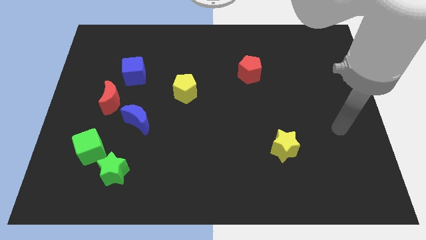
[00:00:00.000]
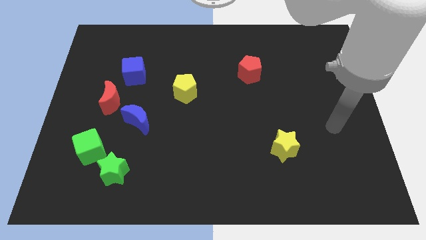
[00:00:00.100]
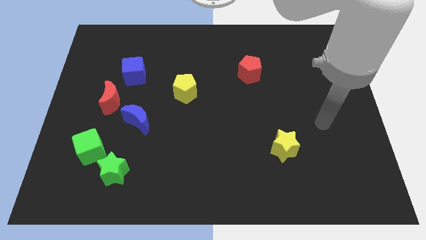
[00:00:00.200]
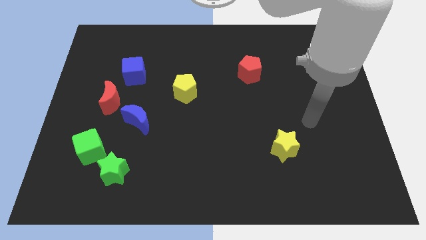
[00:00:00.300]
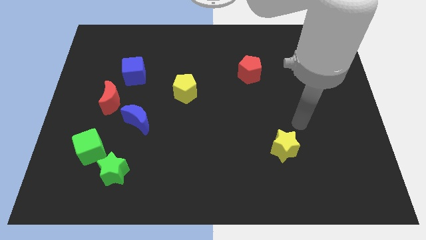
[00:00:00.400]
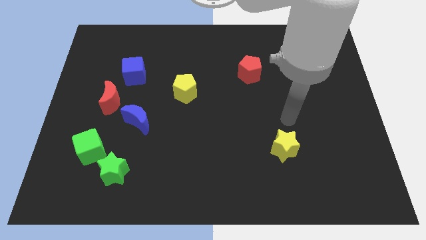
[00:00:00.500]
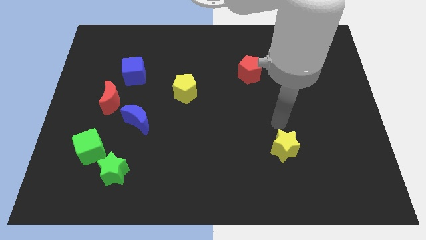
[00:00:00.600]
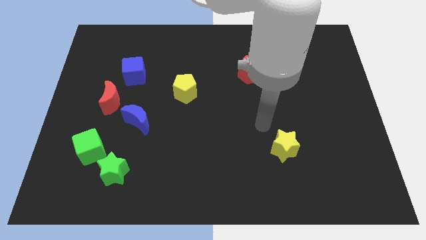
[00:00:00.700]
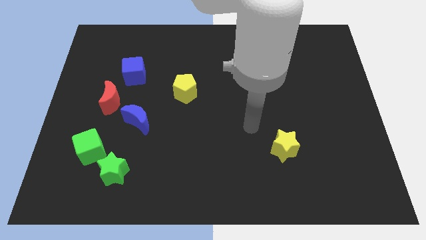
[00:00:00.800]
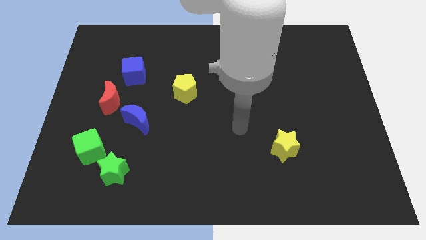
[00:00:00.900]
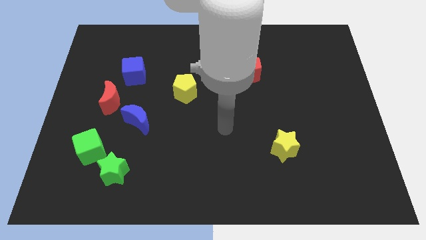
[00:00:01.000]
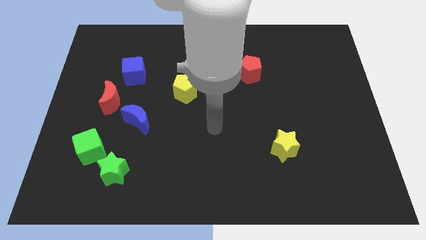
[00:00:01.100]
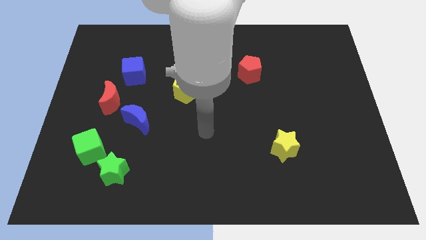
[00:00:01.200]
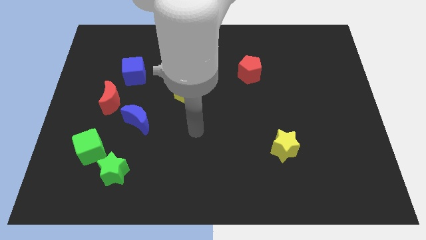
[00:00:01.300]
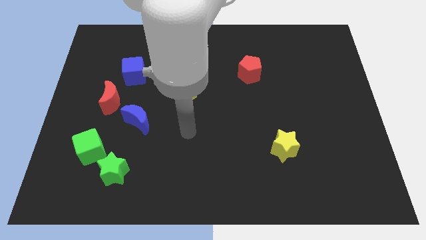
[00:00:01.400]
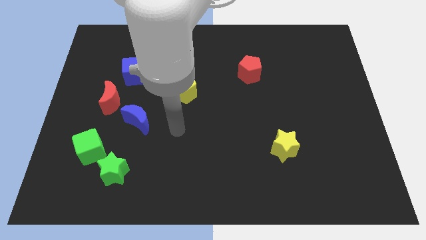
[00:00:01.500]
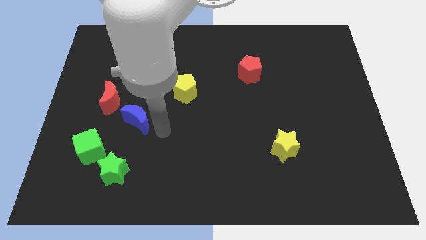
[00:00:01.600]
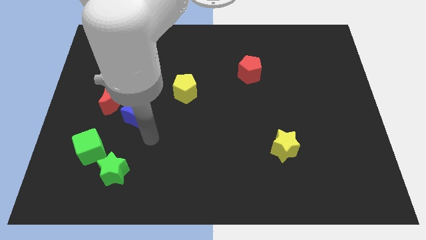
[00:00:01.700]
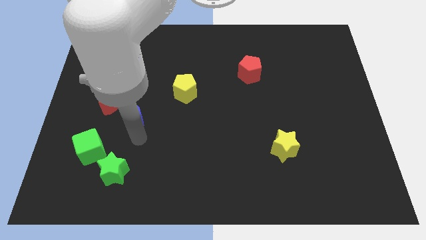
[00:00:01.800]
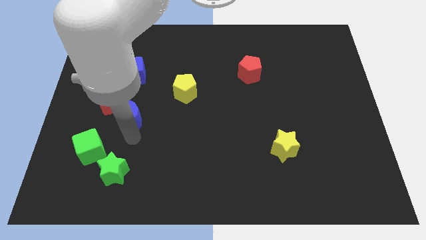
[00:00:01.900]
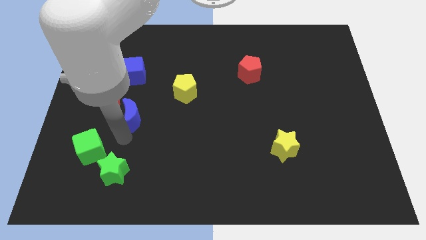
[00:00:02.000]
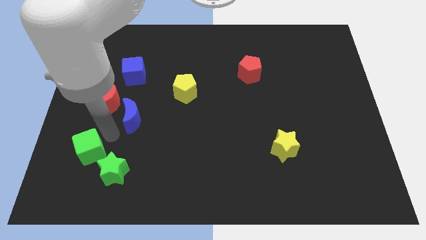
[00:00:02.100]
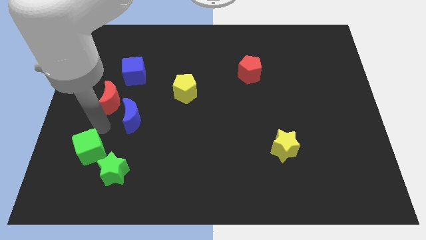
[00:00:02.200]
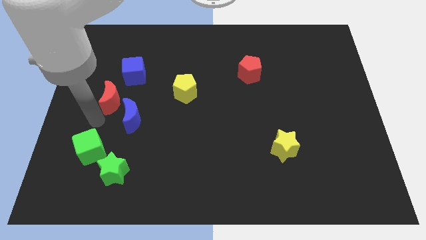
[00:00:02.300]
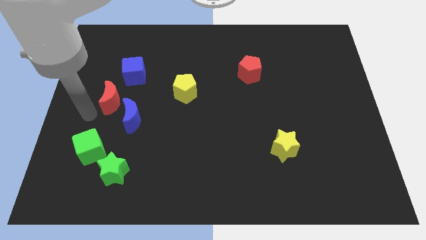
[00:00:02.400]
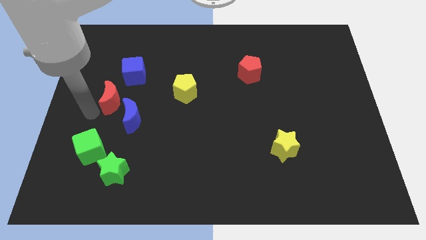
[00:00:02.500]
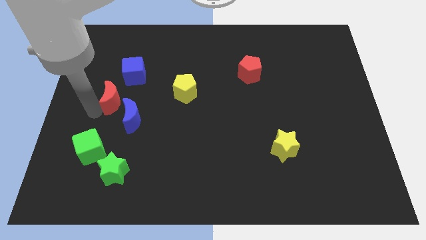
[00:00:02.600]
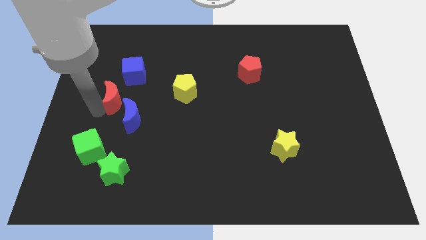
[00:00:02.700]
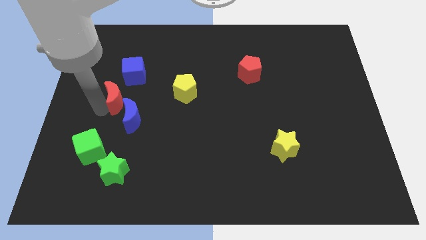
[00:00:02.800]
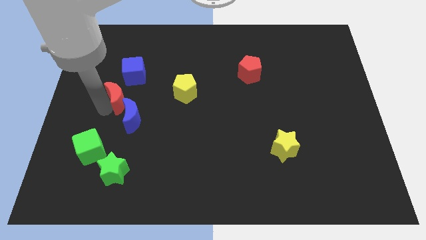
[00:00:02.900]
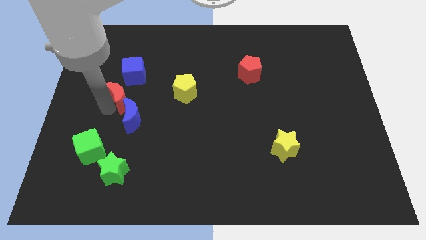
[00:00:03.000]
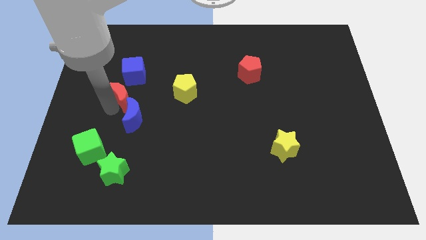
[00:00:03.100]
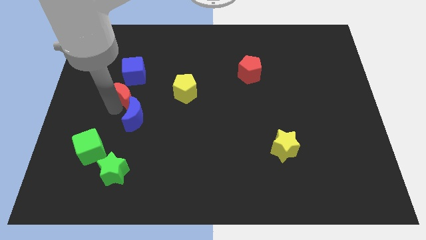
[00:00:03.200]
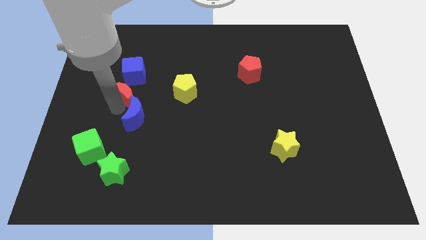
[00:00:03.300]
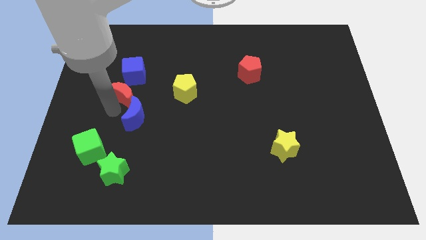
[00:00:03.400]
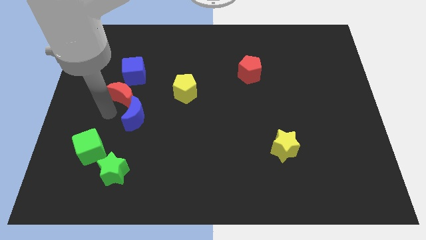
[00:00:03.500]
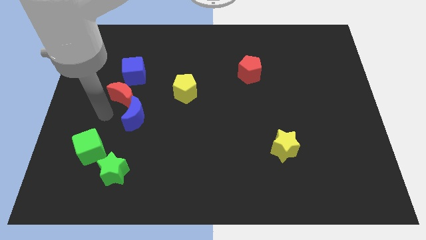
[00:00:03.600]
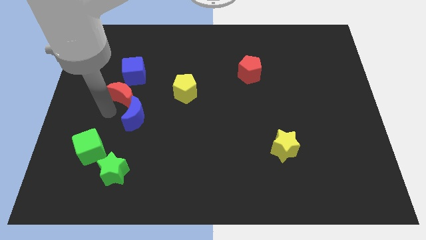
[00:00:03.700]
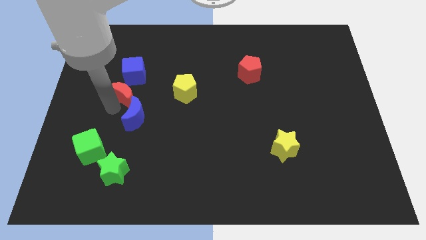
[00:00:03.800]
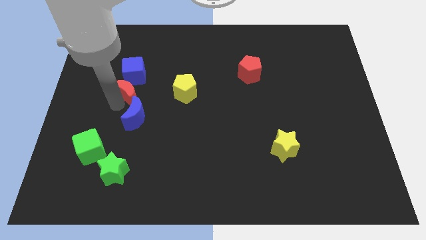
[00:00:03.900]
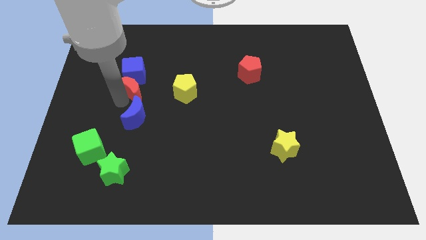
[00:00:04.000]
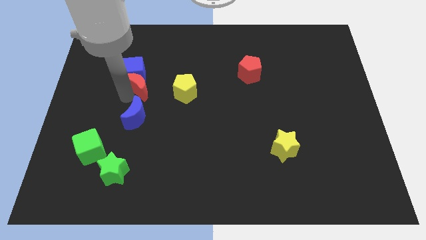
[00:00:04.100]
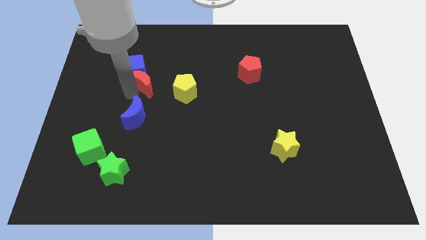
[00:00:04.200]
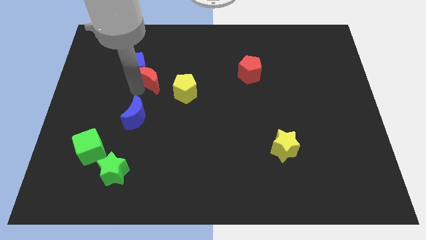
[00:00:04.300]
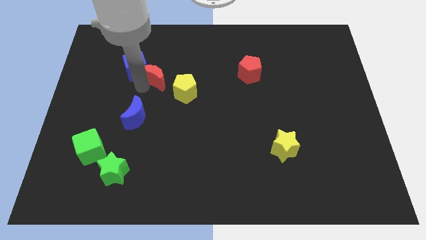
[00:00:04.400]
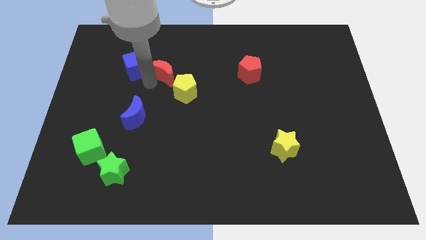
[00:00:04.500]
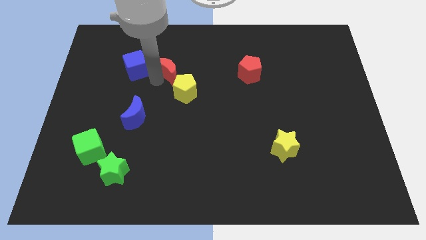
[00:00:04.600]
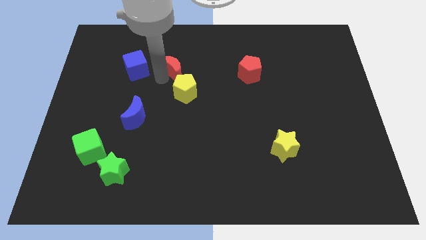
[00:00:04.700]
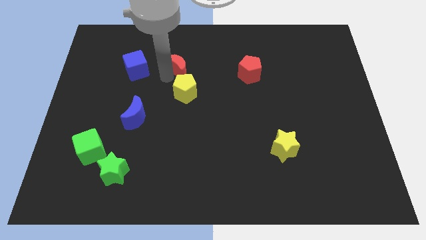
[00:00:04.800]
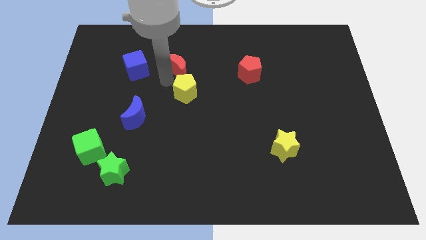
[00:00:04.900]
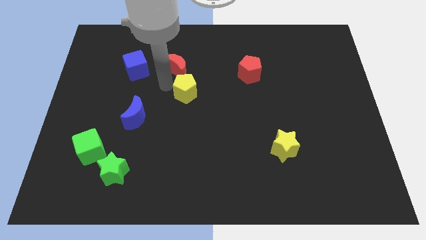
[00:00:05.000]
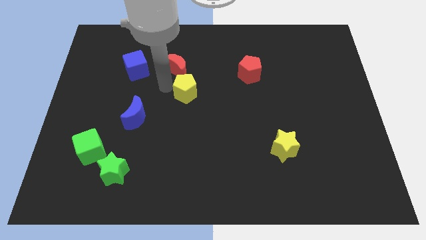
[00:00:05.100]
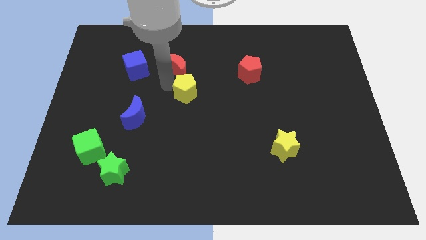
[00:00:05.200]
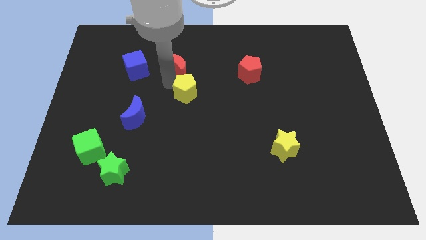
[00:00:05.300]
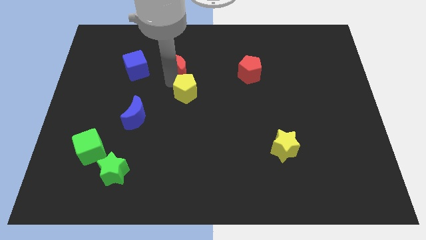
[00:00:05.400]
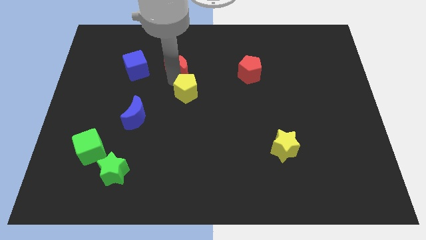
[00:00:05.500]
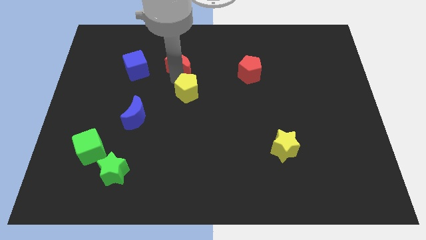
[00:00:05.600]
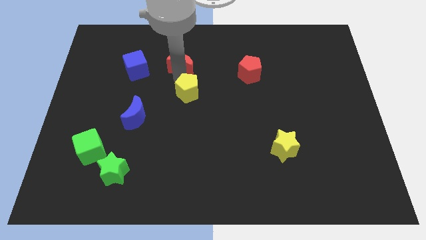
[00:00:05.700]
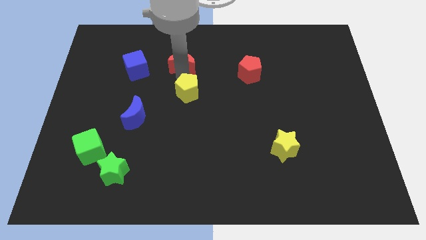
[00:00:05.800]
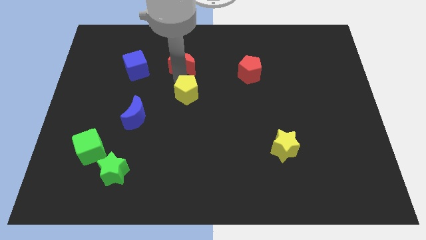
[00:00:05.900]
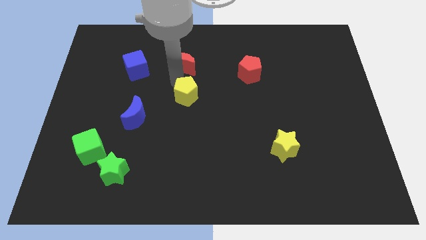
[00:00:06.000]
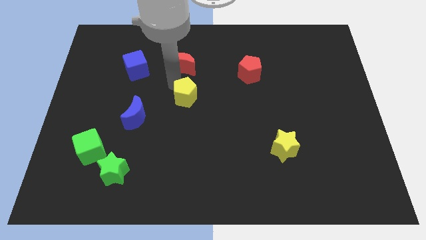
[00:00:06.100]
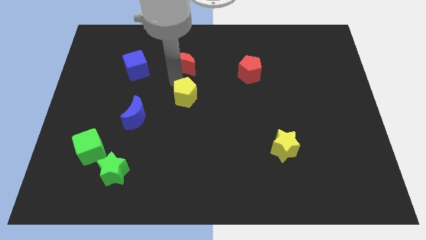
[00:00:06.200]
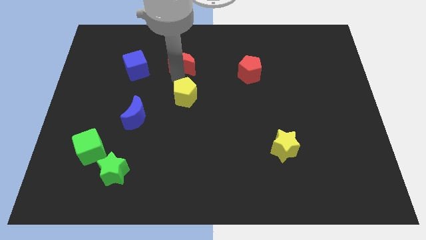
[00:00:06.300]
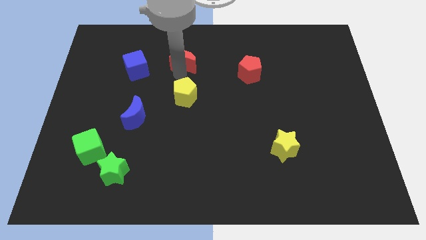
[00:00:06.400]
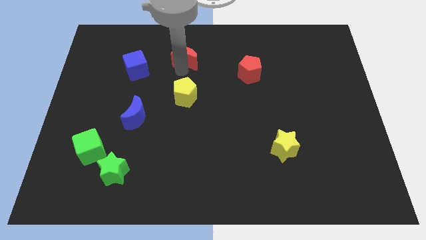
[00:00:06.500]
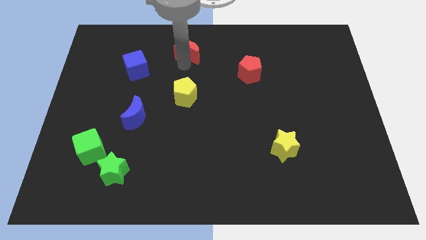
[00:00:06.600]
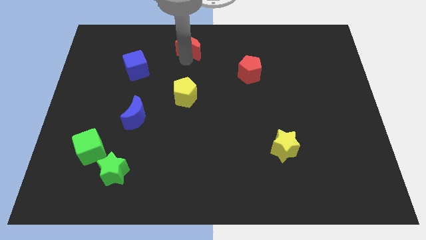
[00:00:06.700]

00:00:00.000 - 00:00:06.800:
push the red moon to the towards your base
